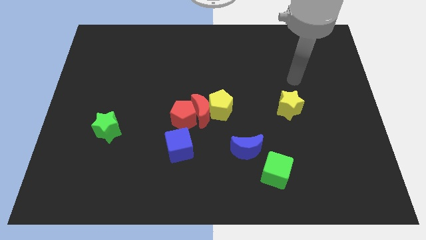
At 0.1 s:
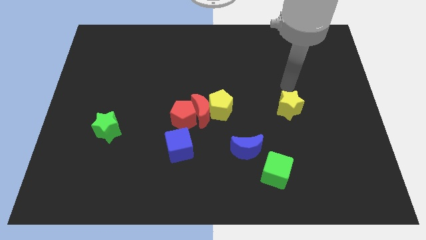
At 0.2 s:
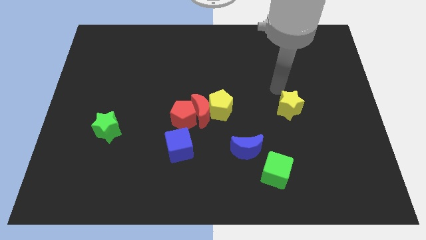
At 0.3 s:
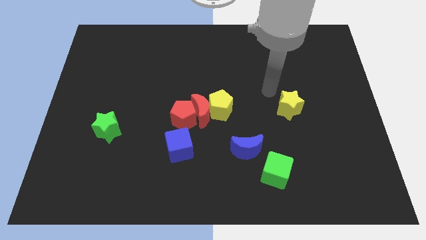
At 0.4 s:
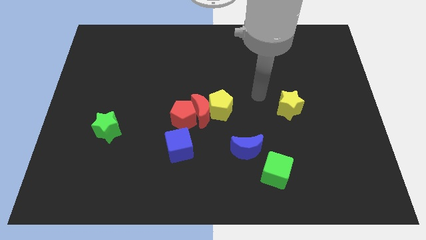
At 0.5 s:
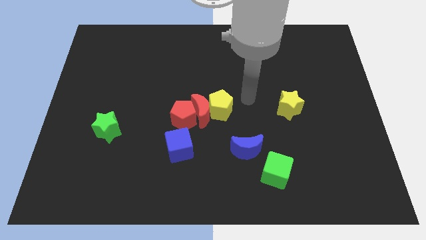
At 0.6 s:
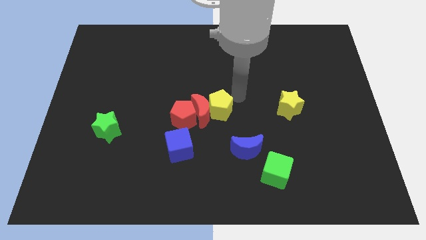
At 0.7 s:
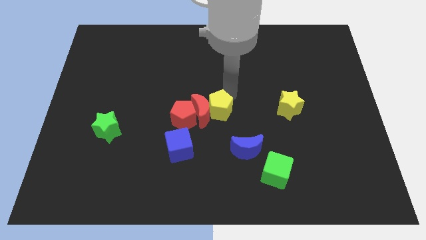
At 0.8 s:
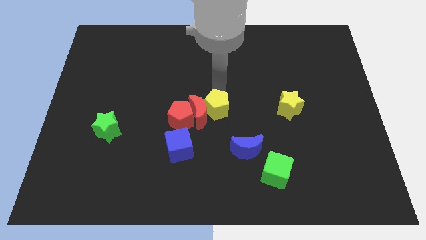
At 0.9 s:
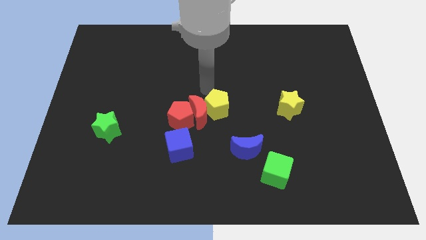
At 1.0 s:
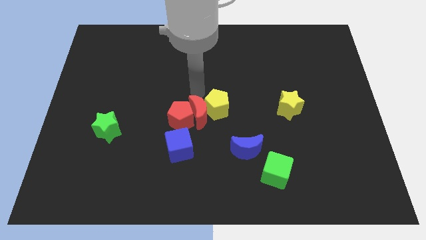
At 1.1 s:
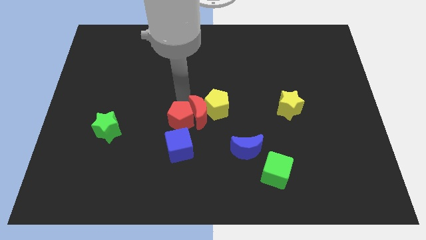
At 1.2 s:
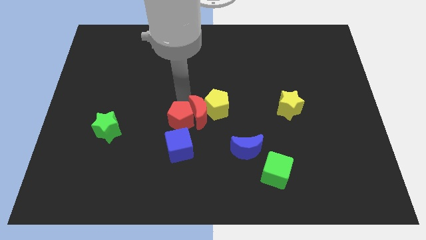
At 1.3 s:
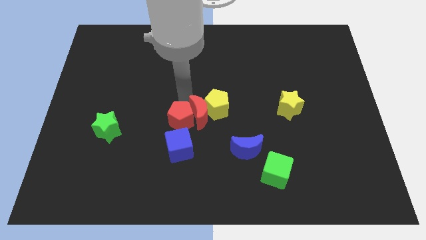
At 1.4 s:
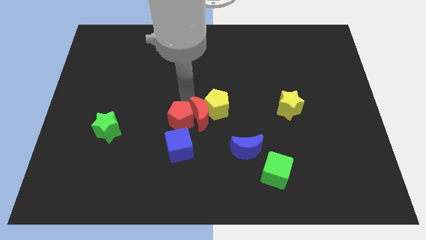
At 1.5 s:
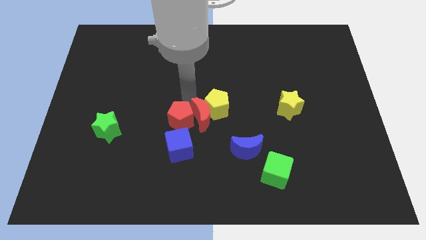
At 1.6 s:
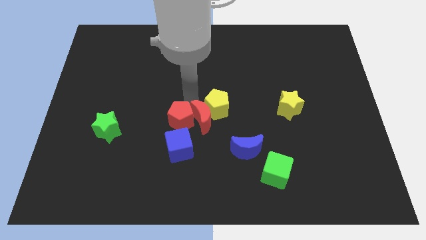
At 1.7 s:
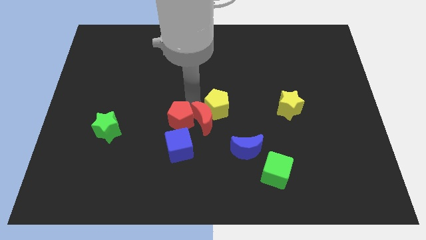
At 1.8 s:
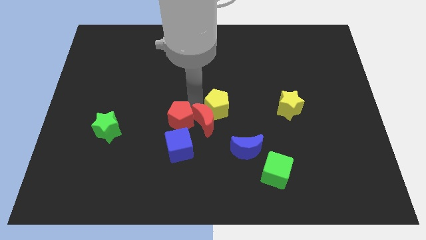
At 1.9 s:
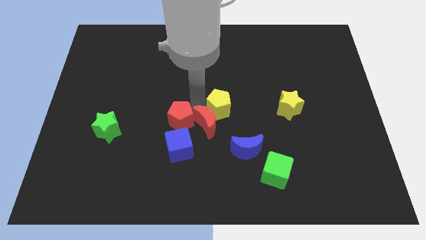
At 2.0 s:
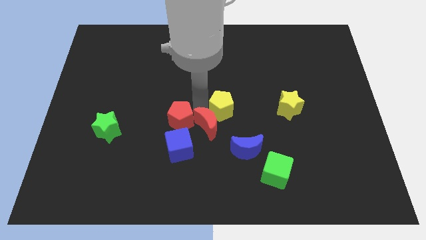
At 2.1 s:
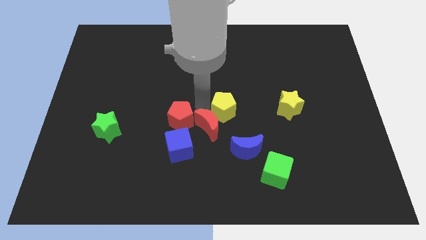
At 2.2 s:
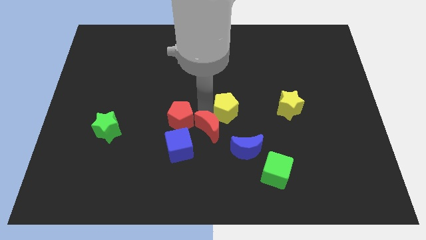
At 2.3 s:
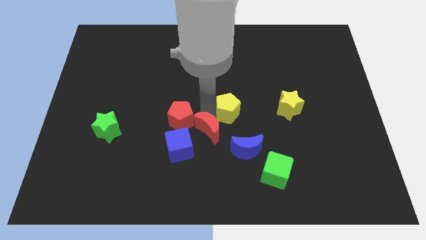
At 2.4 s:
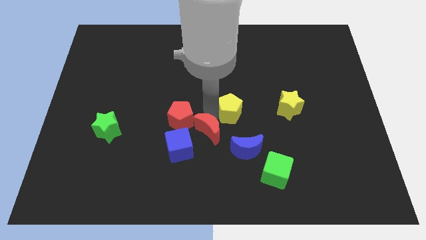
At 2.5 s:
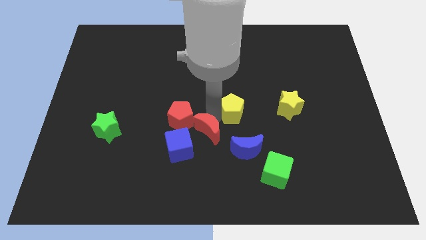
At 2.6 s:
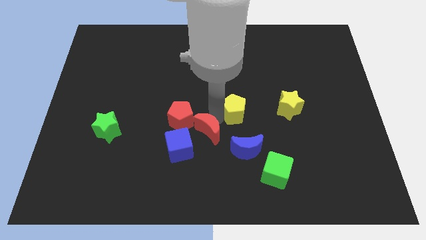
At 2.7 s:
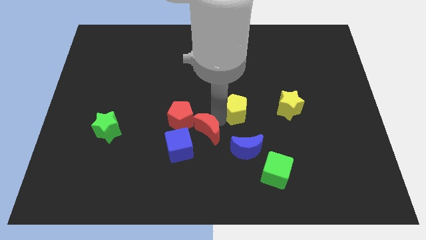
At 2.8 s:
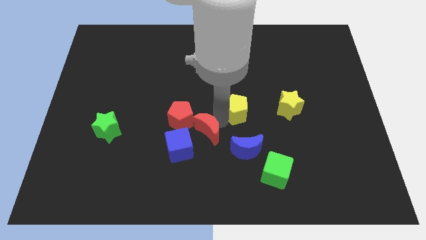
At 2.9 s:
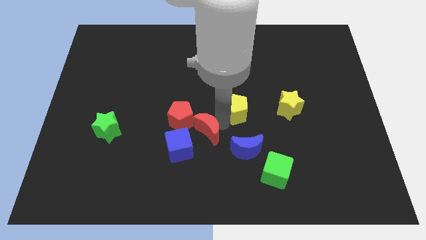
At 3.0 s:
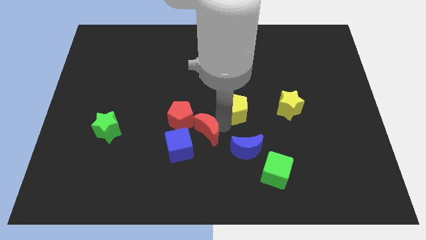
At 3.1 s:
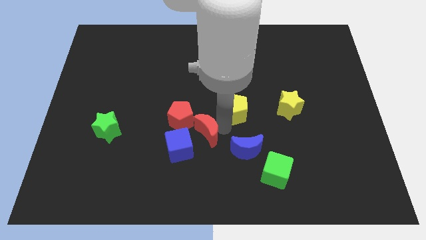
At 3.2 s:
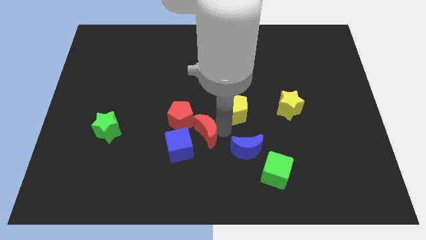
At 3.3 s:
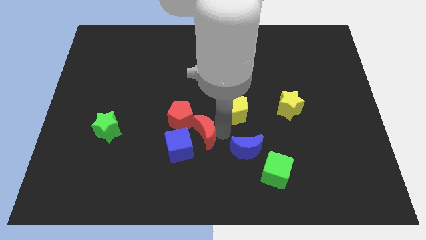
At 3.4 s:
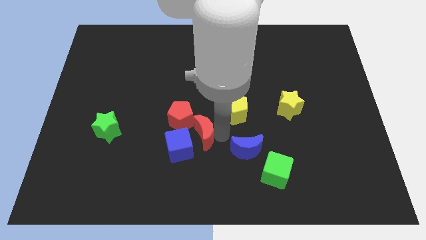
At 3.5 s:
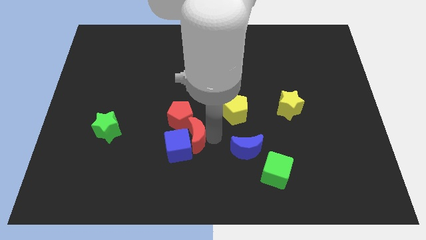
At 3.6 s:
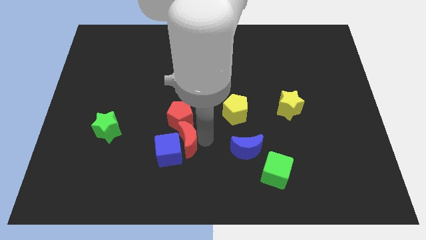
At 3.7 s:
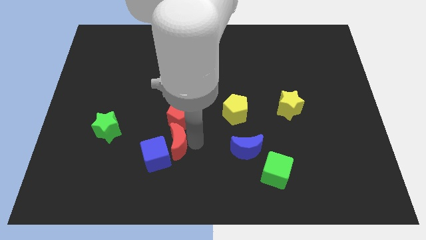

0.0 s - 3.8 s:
pull the red moon apart from the yellow pentagon and red pentagon

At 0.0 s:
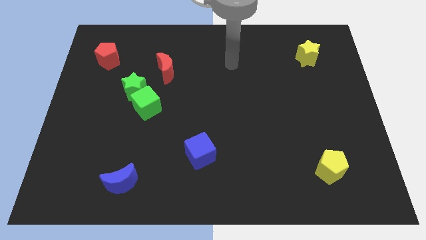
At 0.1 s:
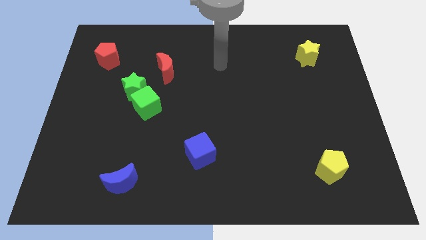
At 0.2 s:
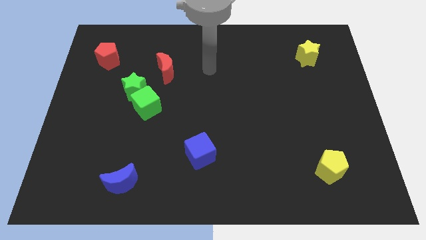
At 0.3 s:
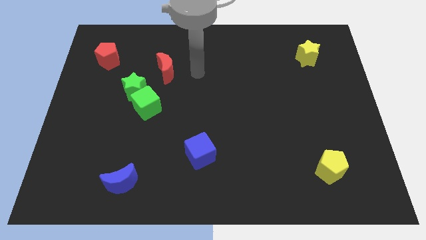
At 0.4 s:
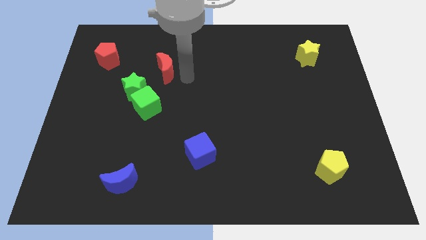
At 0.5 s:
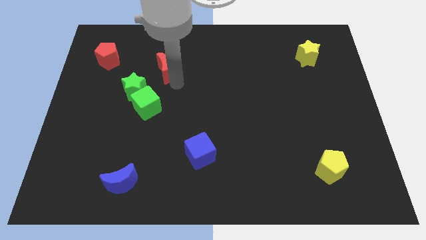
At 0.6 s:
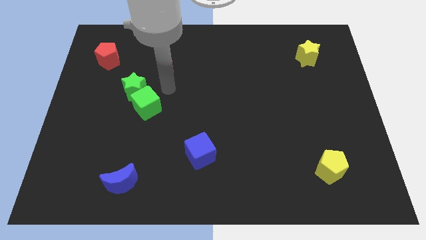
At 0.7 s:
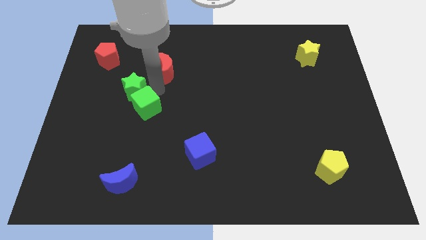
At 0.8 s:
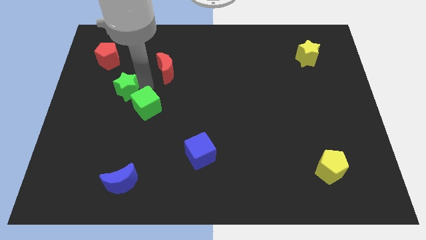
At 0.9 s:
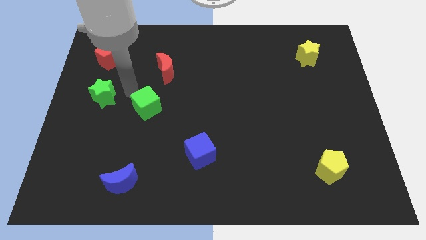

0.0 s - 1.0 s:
separate the green cube from the green star

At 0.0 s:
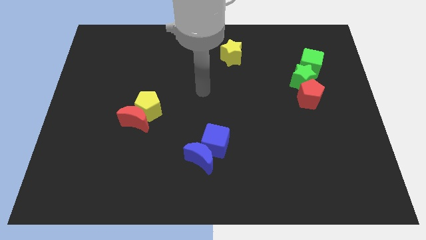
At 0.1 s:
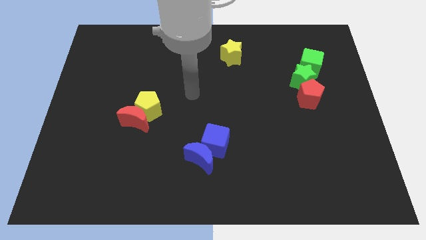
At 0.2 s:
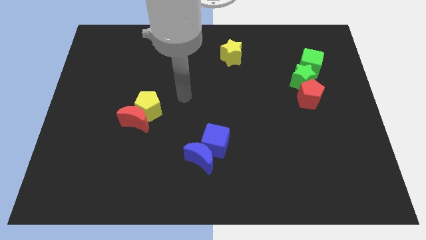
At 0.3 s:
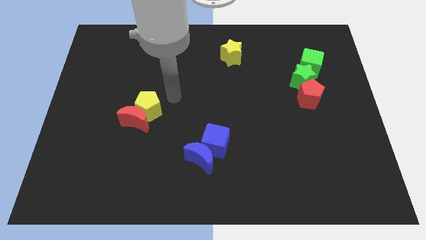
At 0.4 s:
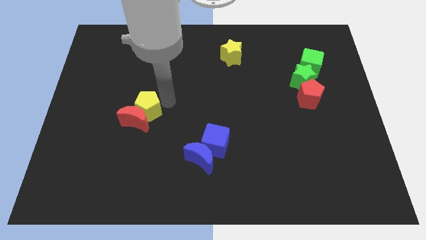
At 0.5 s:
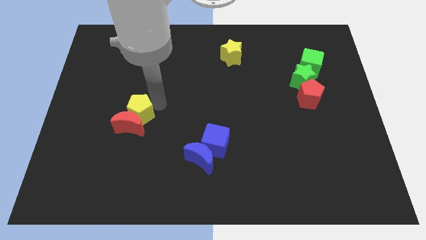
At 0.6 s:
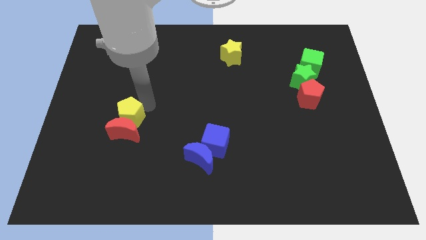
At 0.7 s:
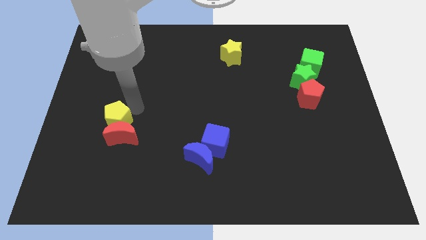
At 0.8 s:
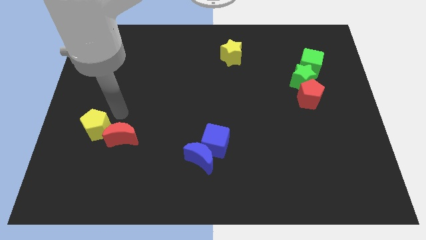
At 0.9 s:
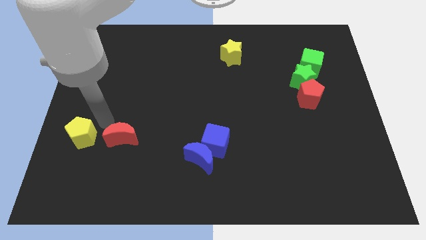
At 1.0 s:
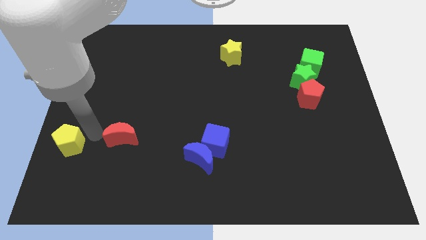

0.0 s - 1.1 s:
move the red moon away from the yellow pentagon

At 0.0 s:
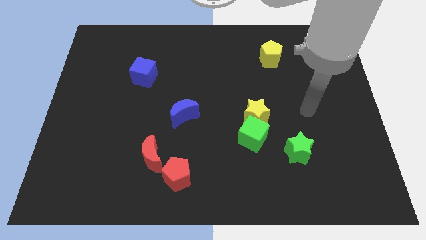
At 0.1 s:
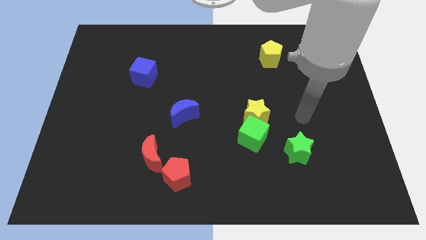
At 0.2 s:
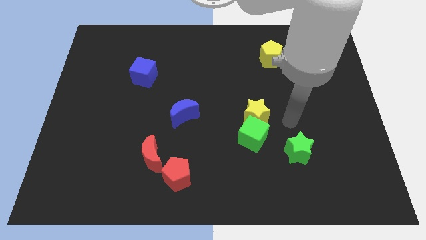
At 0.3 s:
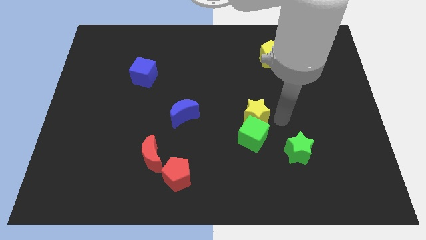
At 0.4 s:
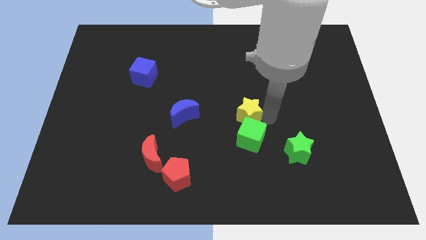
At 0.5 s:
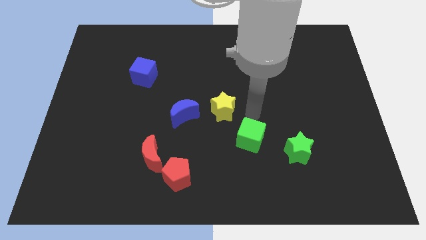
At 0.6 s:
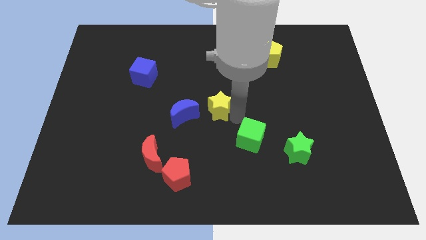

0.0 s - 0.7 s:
pull the green cube apart from the yellow star

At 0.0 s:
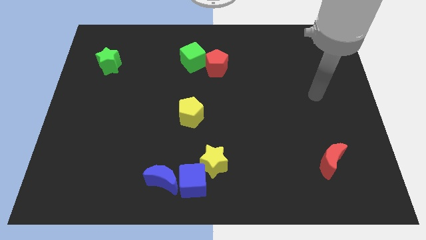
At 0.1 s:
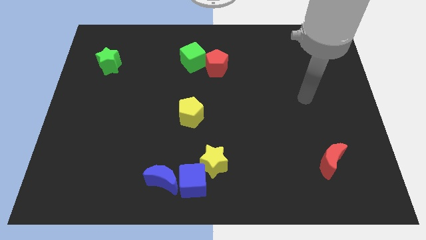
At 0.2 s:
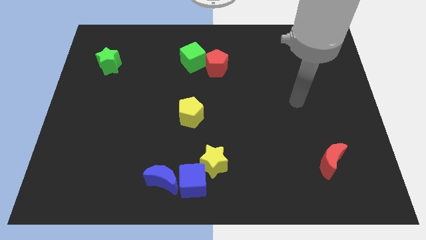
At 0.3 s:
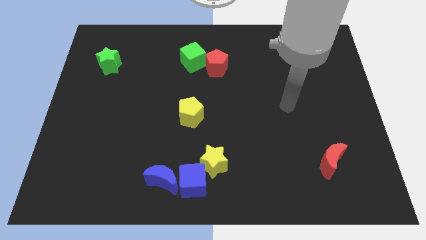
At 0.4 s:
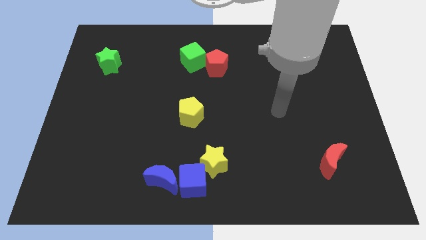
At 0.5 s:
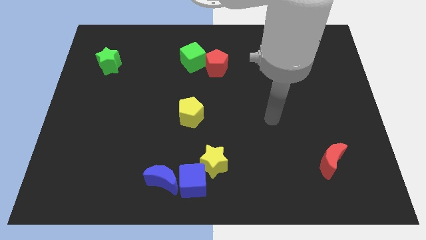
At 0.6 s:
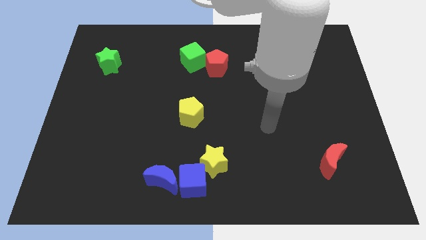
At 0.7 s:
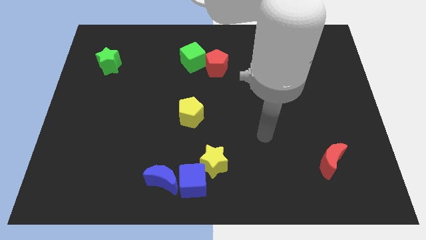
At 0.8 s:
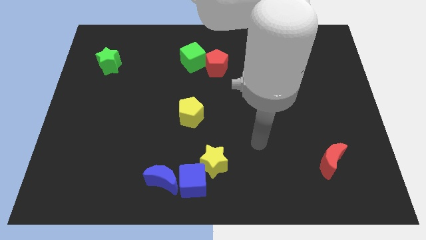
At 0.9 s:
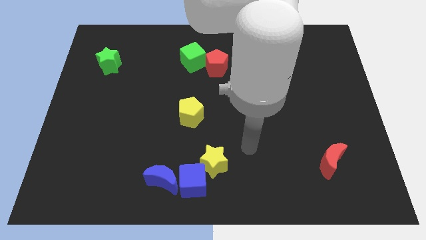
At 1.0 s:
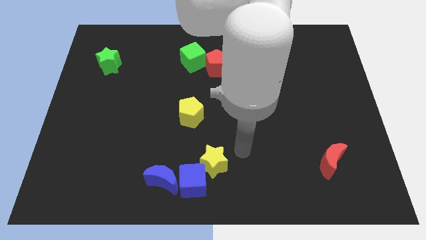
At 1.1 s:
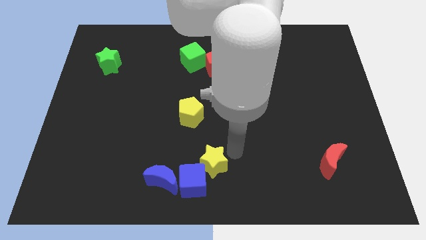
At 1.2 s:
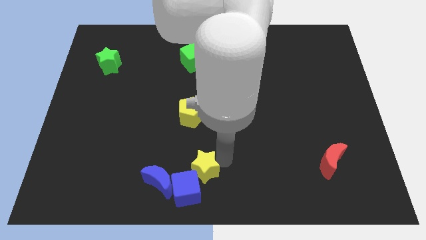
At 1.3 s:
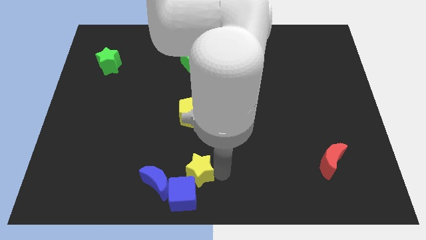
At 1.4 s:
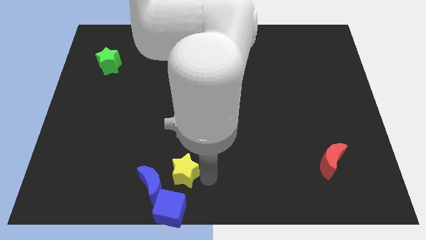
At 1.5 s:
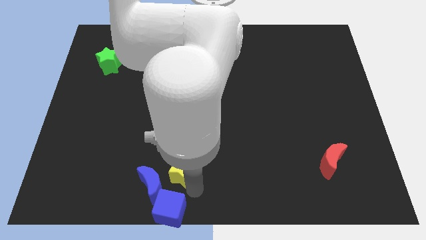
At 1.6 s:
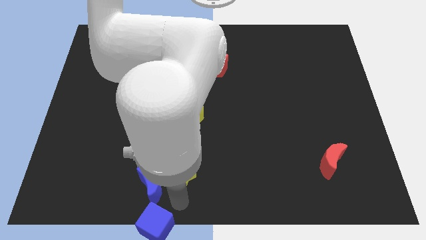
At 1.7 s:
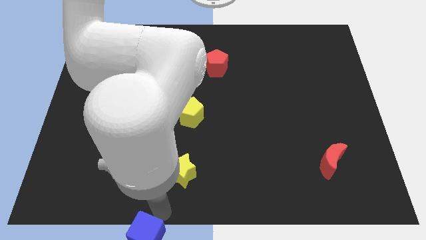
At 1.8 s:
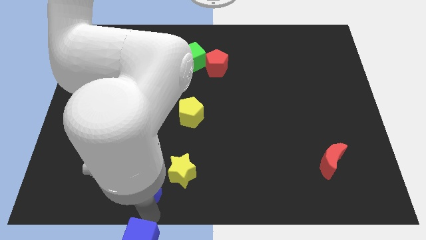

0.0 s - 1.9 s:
pull the blue moon apart from the blue cube

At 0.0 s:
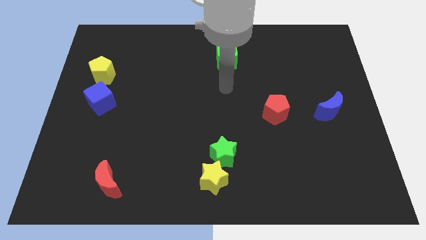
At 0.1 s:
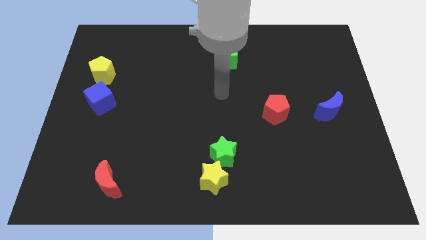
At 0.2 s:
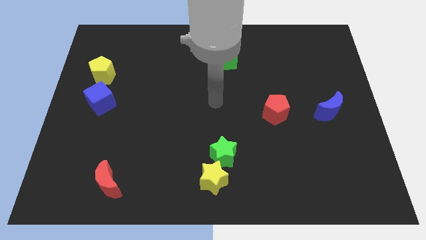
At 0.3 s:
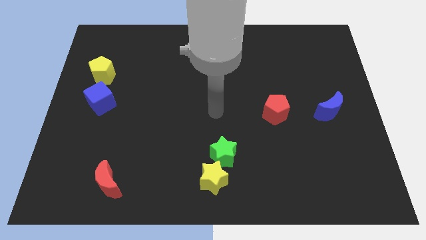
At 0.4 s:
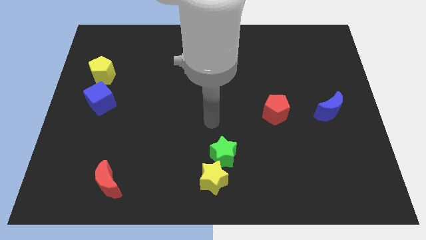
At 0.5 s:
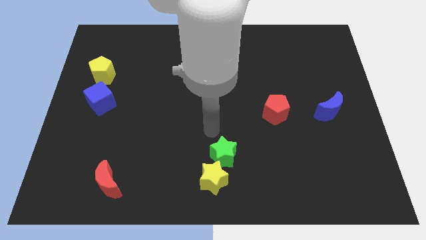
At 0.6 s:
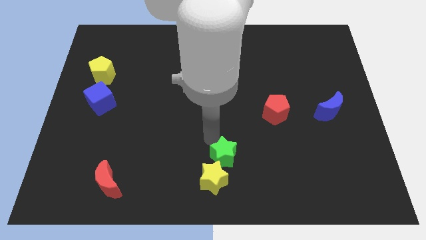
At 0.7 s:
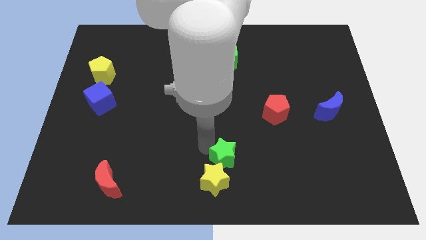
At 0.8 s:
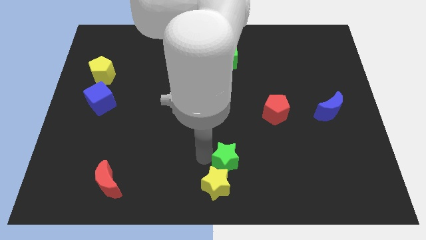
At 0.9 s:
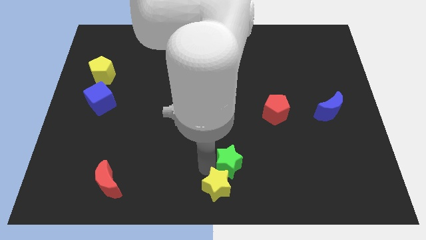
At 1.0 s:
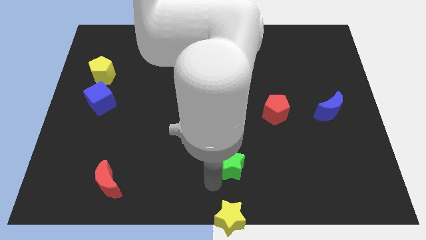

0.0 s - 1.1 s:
move the green star away from the yellow star
